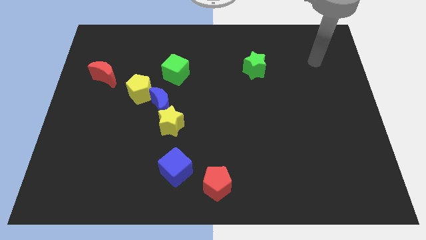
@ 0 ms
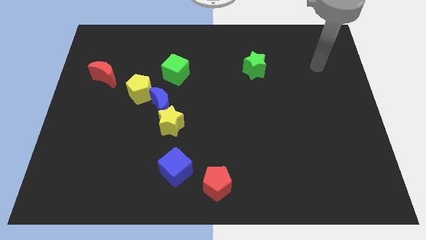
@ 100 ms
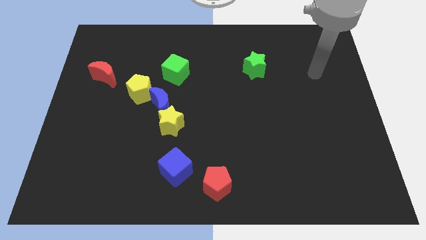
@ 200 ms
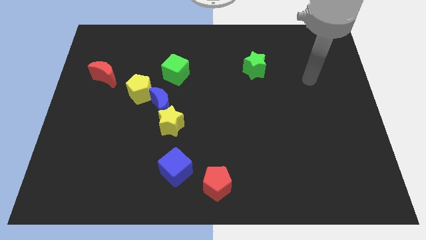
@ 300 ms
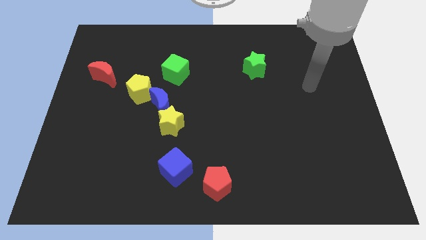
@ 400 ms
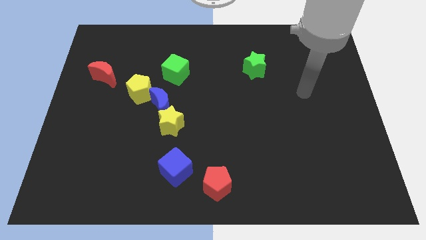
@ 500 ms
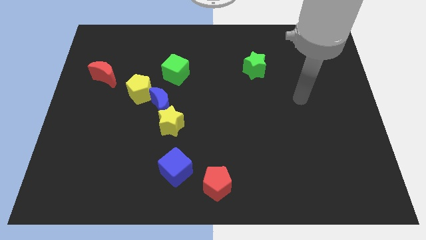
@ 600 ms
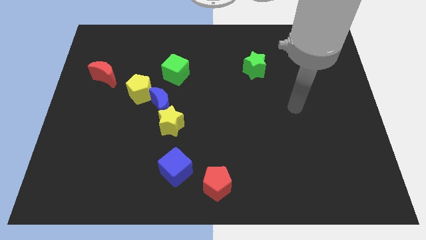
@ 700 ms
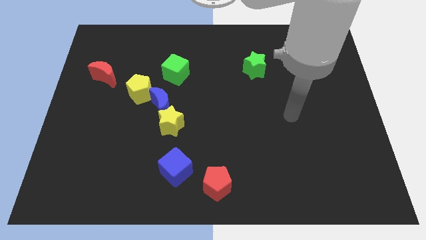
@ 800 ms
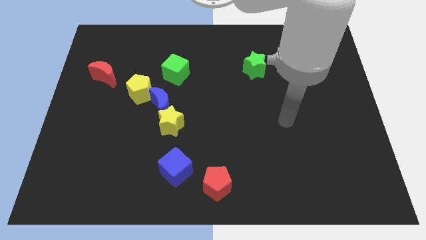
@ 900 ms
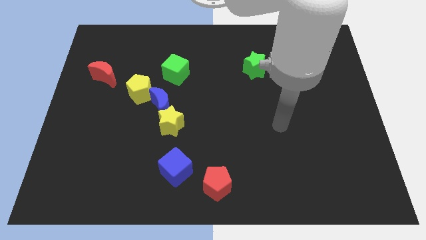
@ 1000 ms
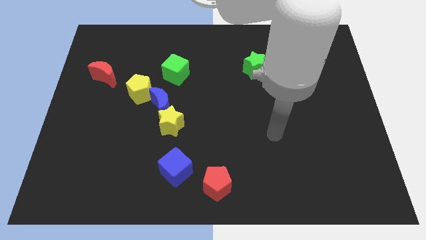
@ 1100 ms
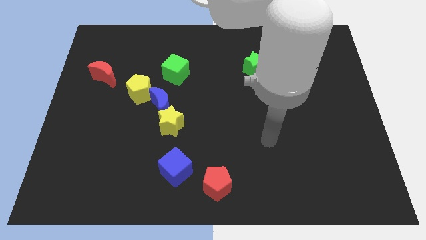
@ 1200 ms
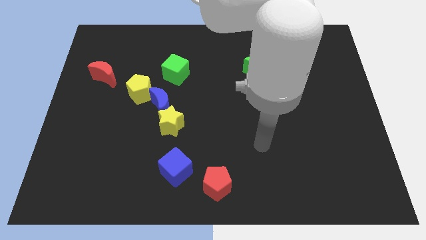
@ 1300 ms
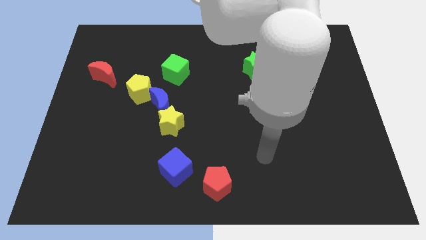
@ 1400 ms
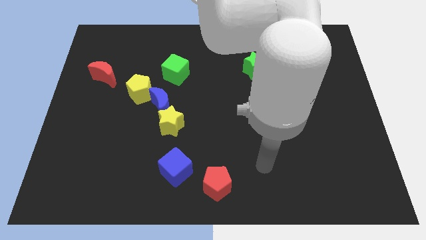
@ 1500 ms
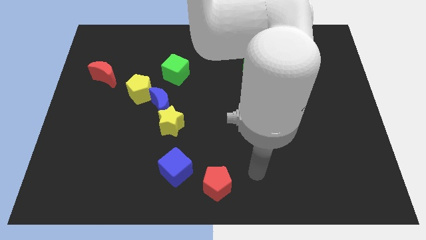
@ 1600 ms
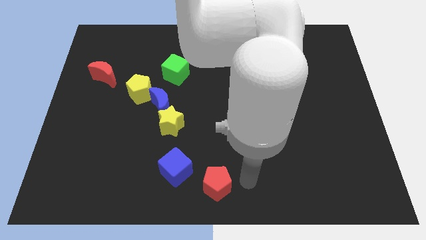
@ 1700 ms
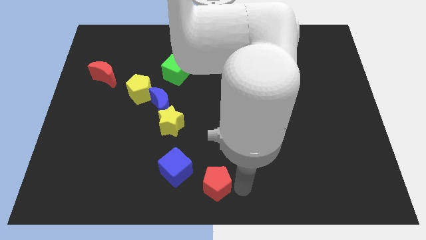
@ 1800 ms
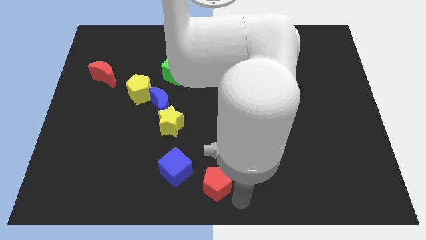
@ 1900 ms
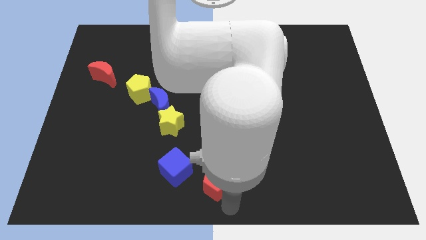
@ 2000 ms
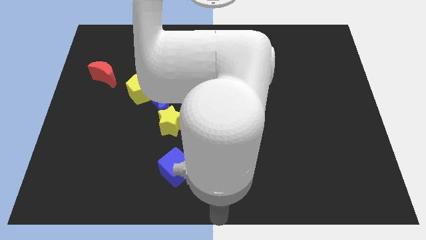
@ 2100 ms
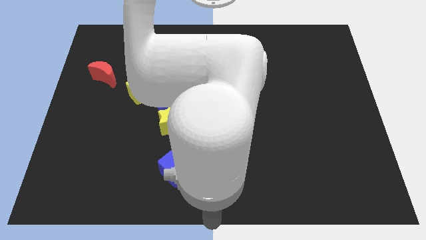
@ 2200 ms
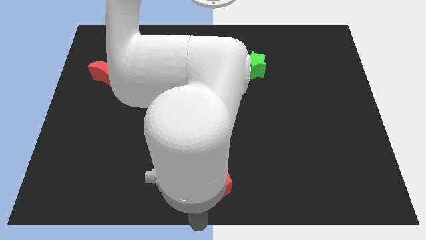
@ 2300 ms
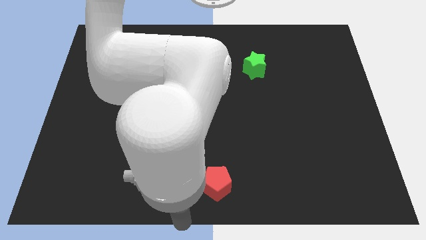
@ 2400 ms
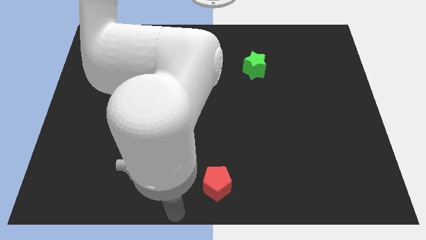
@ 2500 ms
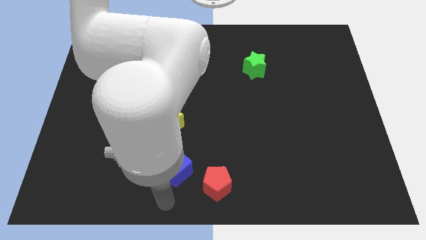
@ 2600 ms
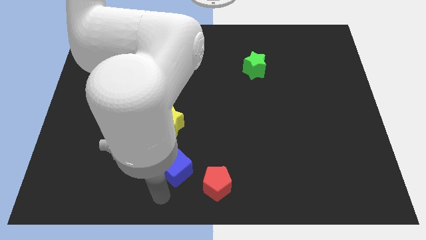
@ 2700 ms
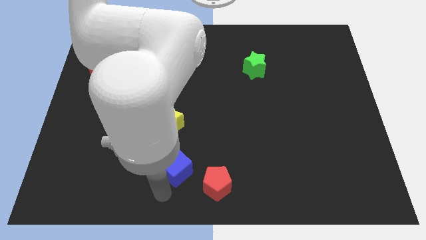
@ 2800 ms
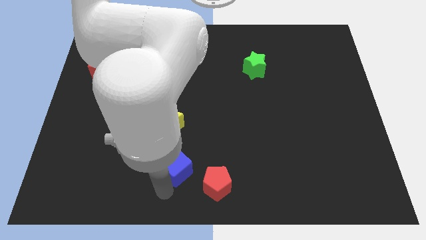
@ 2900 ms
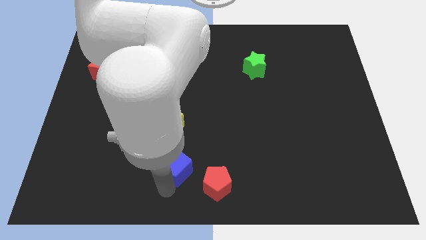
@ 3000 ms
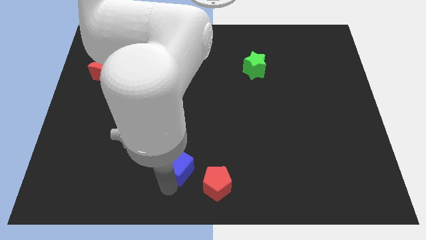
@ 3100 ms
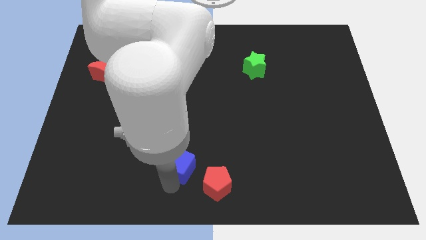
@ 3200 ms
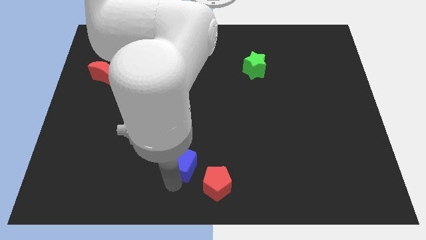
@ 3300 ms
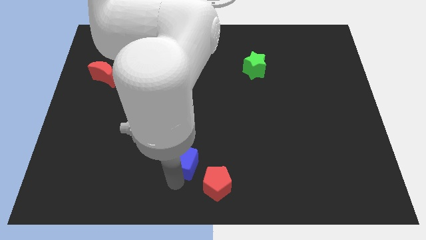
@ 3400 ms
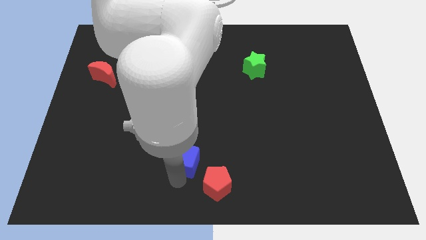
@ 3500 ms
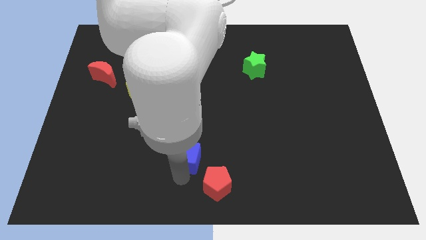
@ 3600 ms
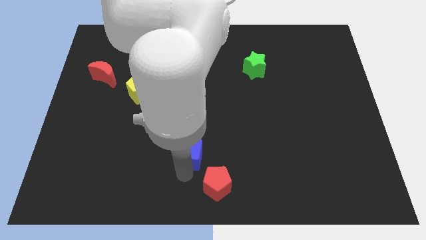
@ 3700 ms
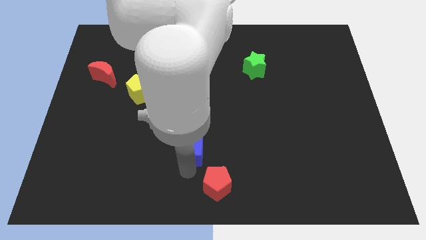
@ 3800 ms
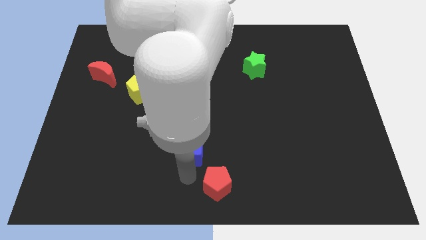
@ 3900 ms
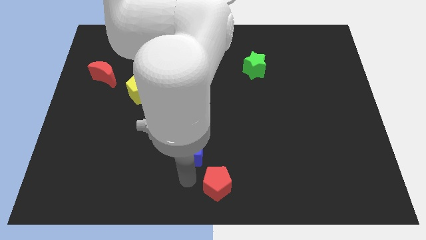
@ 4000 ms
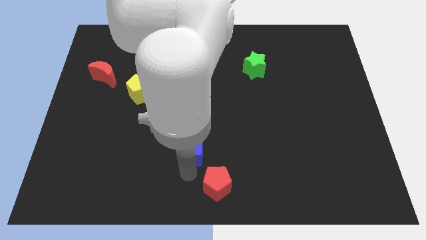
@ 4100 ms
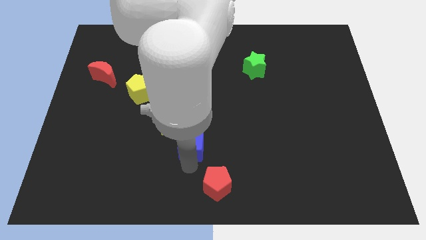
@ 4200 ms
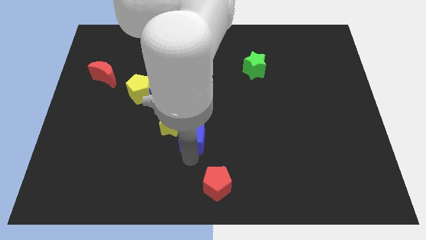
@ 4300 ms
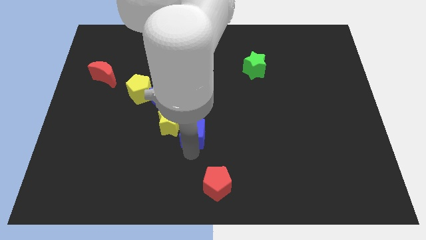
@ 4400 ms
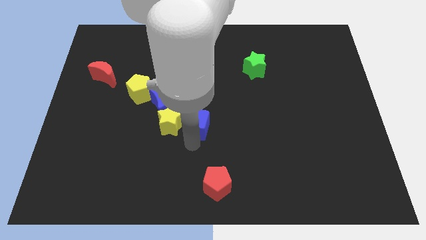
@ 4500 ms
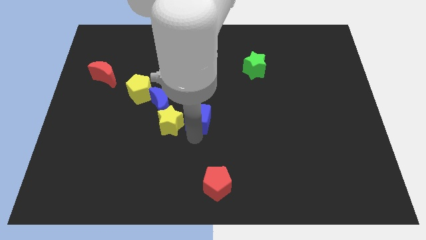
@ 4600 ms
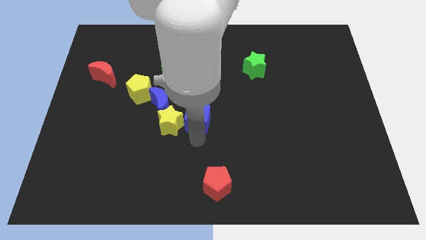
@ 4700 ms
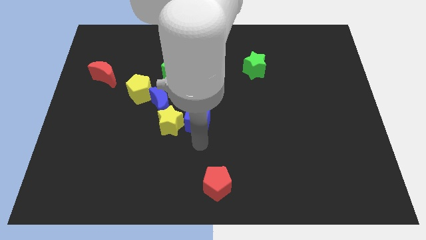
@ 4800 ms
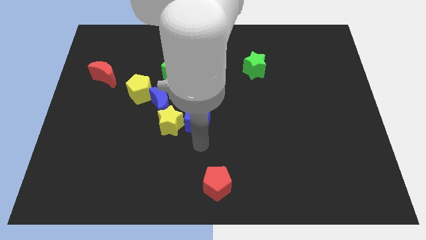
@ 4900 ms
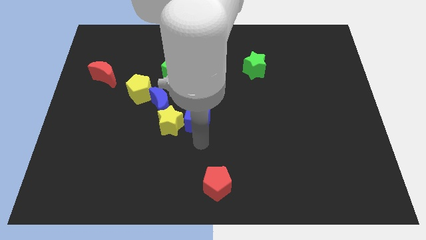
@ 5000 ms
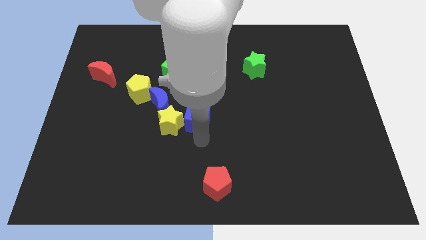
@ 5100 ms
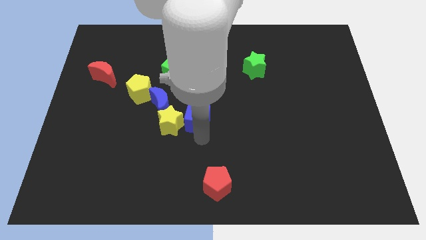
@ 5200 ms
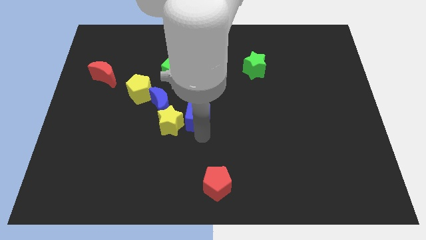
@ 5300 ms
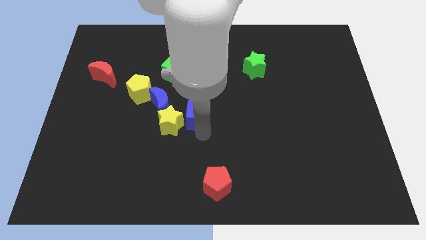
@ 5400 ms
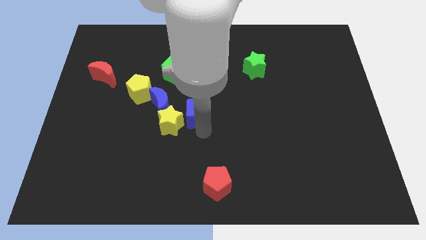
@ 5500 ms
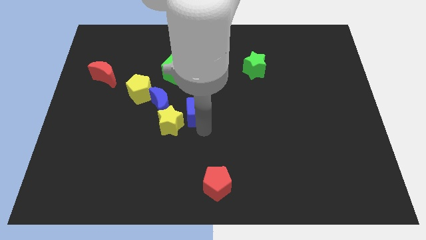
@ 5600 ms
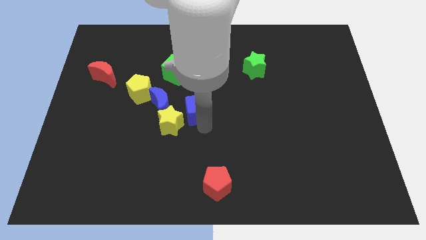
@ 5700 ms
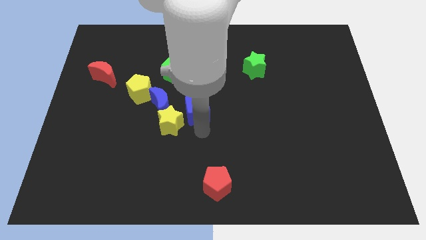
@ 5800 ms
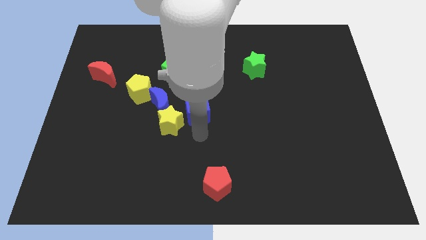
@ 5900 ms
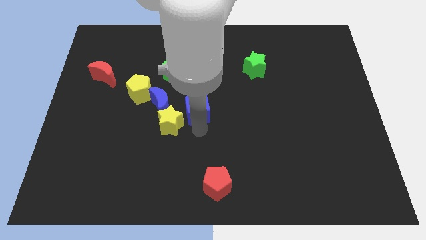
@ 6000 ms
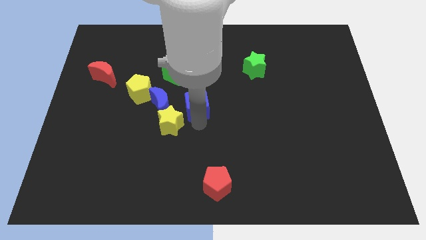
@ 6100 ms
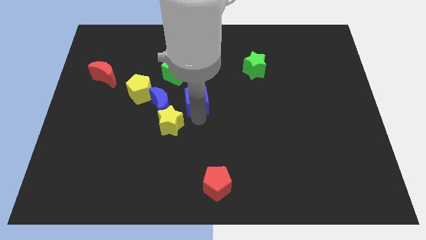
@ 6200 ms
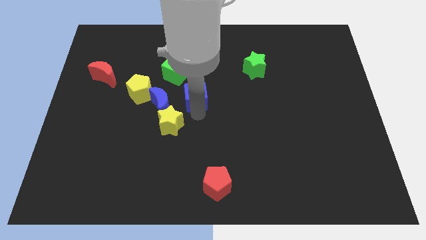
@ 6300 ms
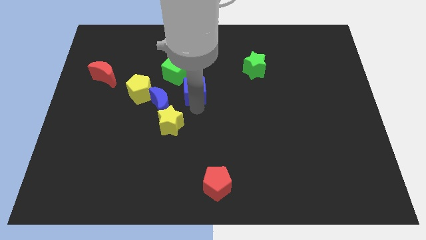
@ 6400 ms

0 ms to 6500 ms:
move the blue cube up

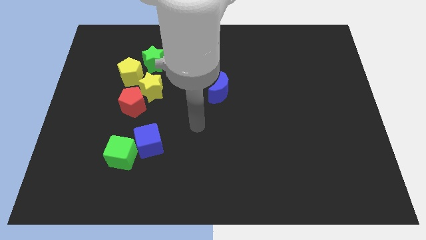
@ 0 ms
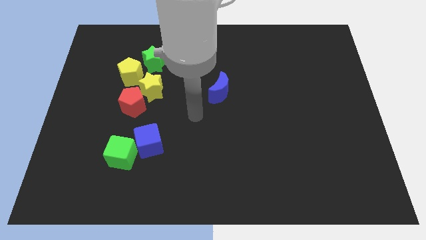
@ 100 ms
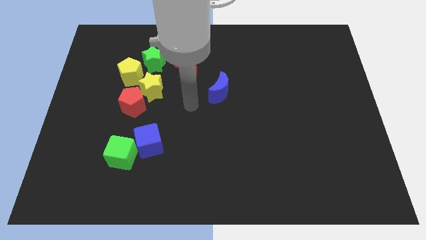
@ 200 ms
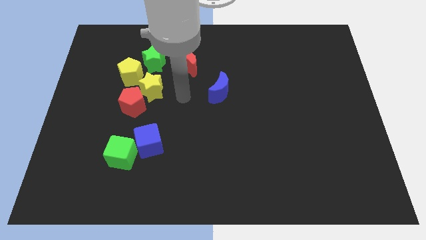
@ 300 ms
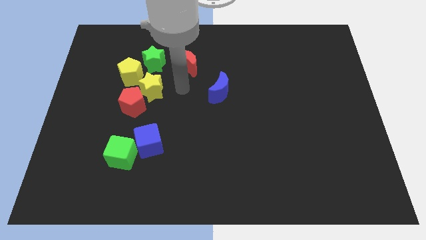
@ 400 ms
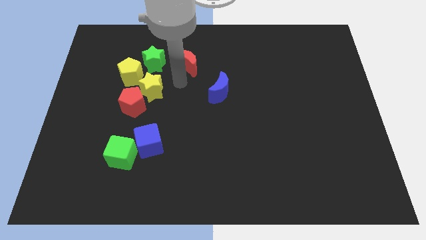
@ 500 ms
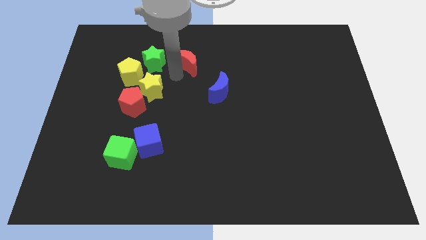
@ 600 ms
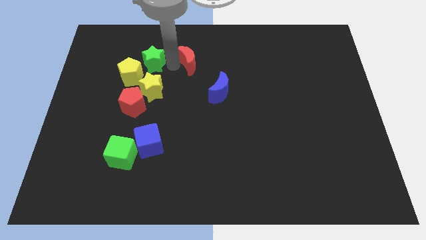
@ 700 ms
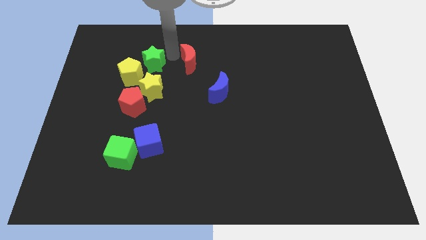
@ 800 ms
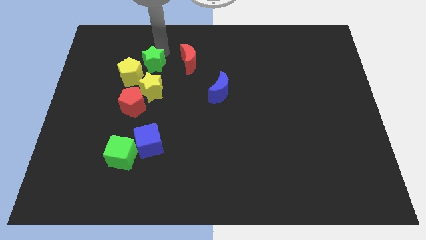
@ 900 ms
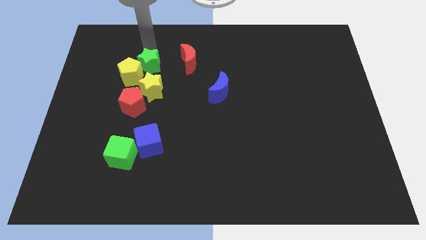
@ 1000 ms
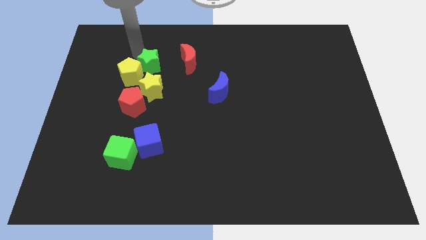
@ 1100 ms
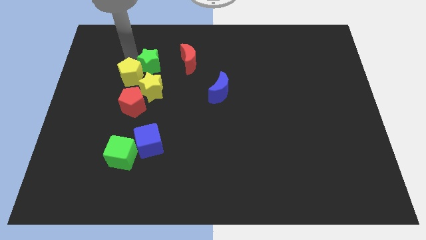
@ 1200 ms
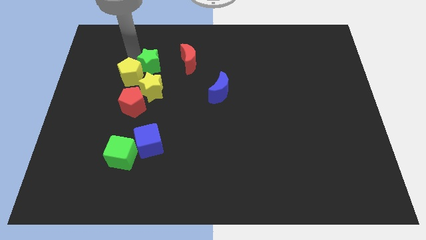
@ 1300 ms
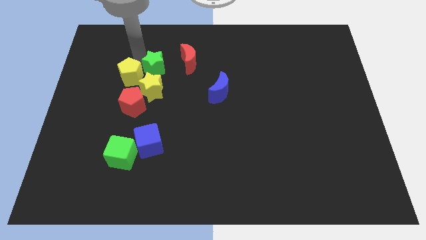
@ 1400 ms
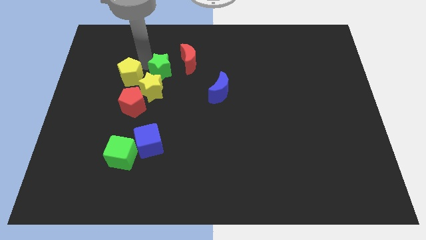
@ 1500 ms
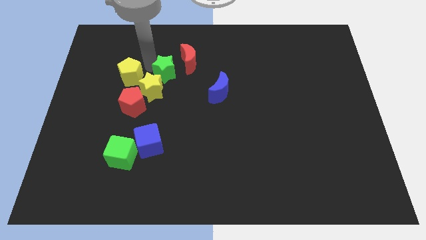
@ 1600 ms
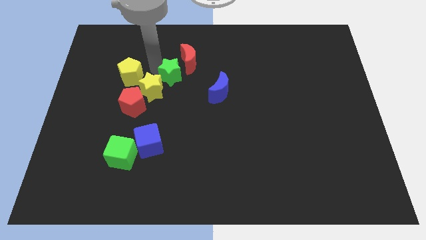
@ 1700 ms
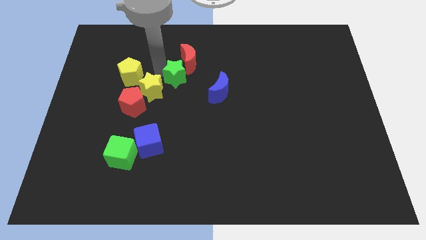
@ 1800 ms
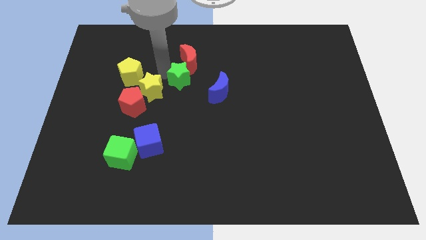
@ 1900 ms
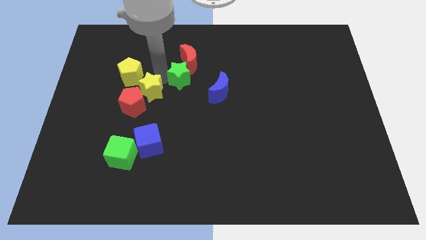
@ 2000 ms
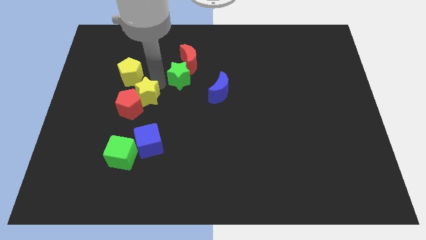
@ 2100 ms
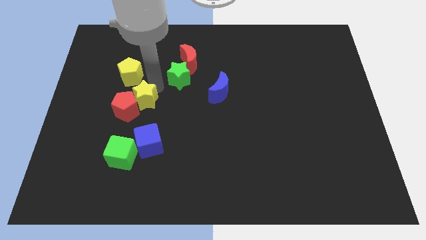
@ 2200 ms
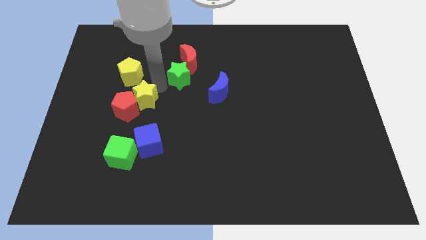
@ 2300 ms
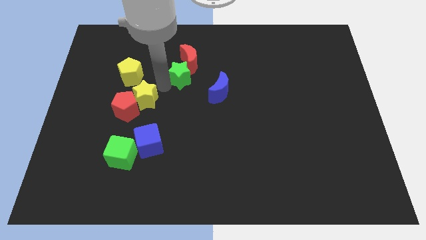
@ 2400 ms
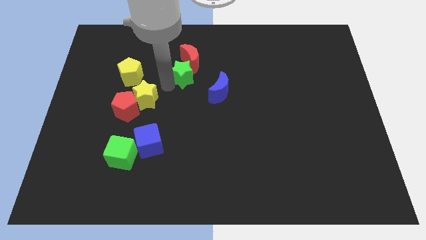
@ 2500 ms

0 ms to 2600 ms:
push the green star a bit right
